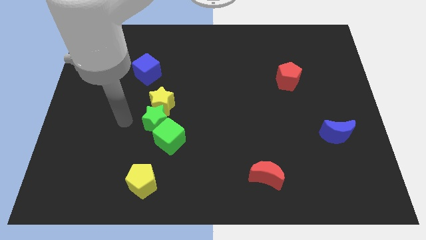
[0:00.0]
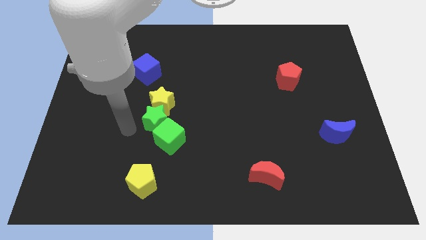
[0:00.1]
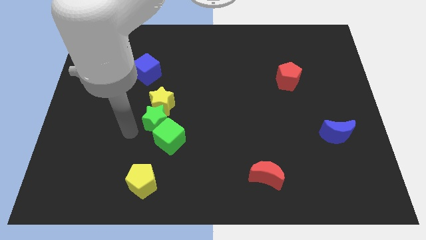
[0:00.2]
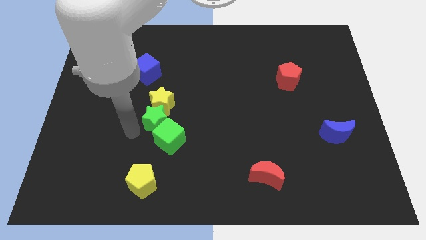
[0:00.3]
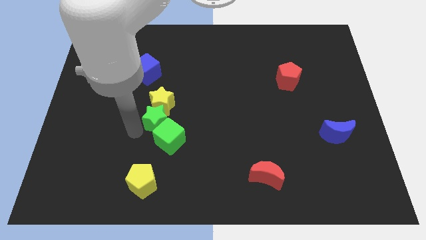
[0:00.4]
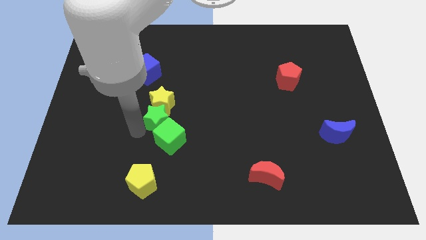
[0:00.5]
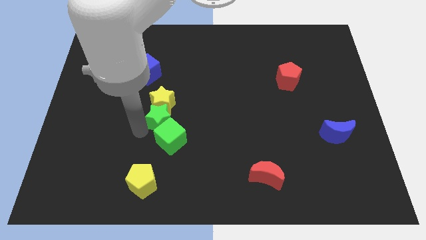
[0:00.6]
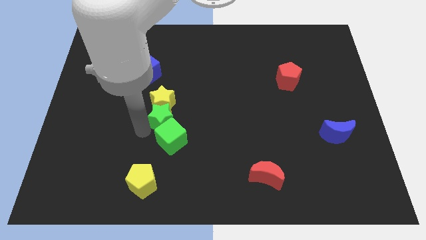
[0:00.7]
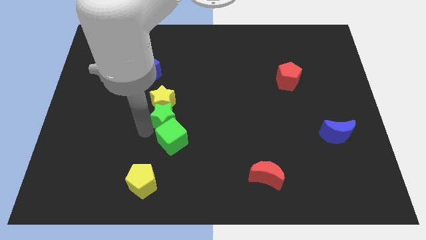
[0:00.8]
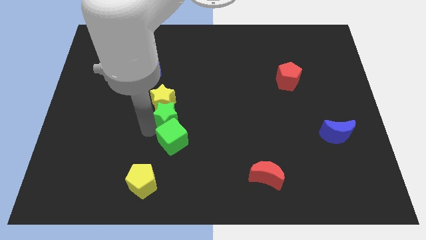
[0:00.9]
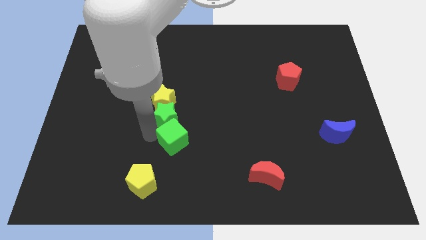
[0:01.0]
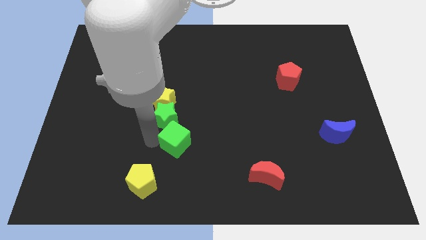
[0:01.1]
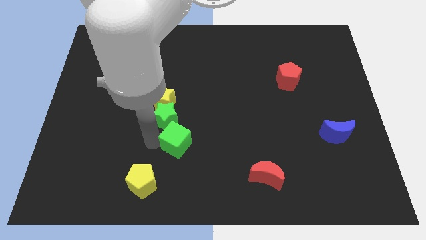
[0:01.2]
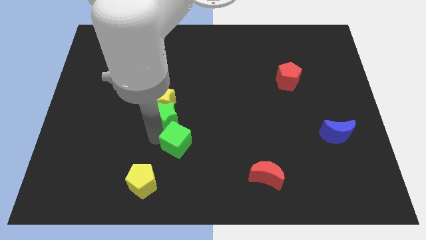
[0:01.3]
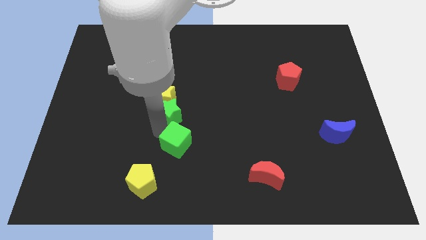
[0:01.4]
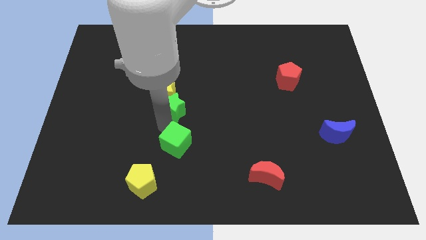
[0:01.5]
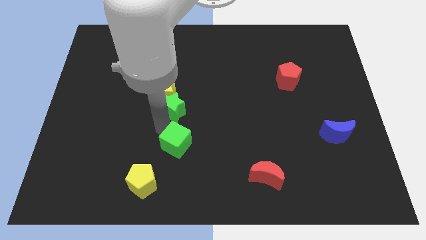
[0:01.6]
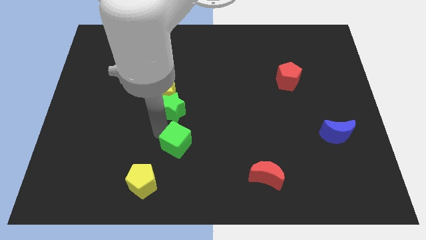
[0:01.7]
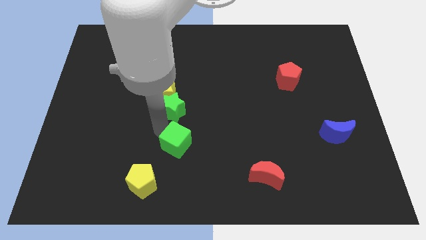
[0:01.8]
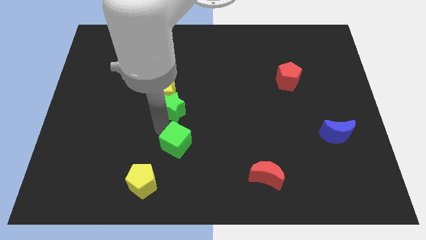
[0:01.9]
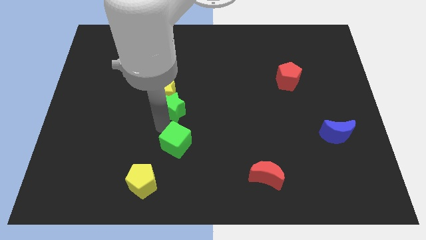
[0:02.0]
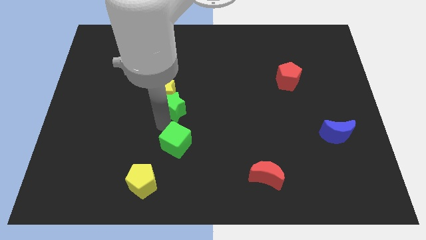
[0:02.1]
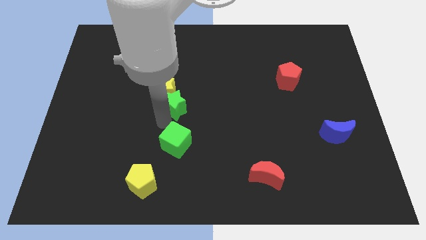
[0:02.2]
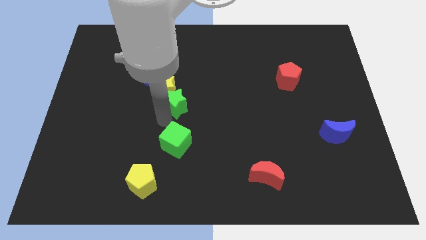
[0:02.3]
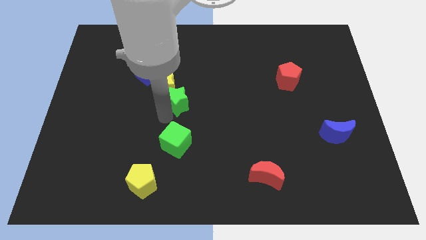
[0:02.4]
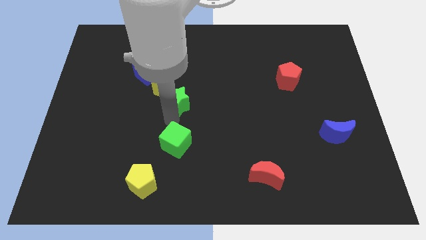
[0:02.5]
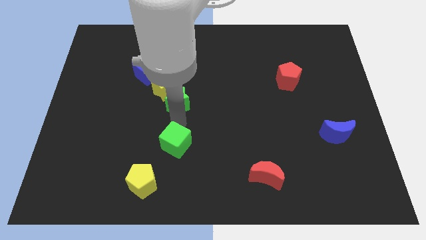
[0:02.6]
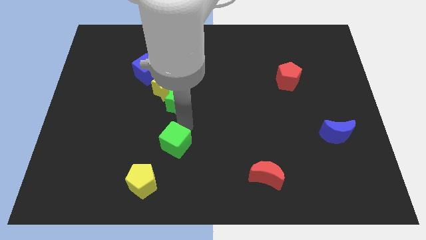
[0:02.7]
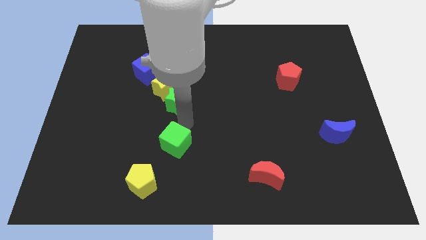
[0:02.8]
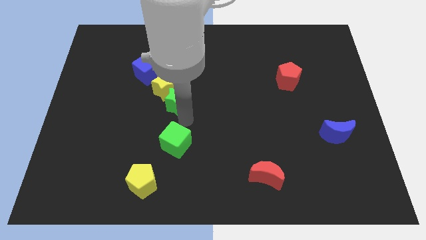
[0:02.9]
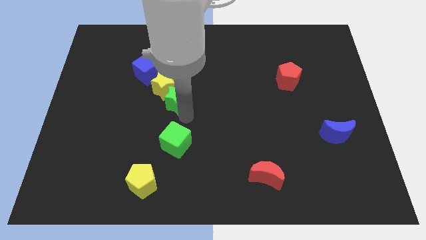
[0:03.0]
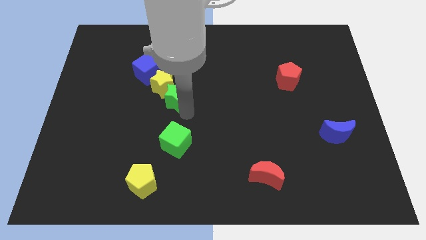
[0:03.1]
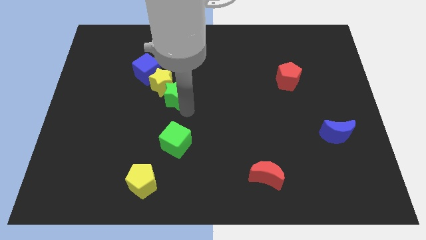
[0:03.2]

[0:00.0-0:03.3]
slide the green star slightly up

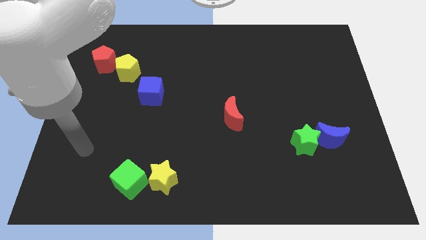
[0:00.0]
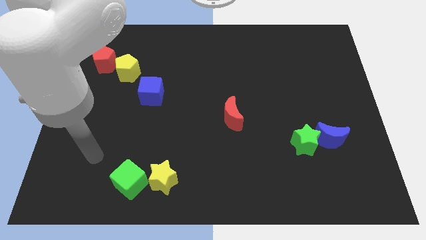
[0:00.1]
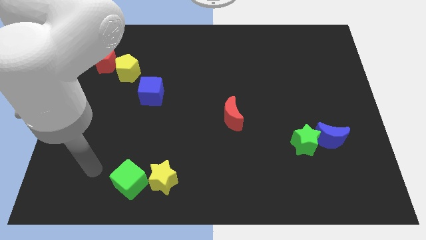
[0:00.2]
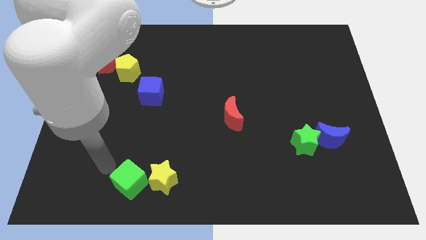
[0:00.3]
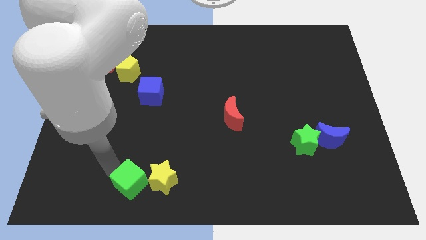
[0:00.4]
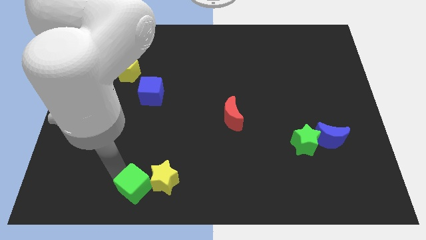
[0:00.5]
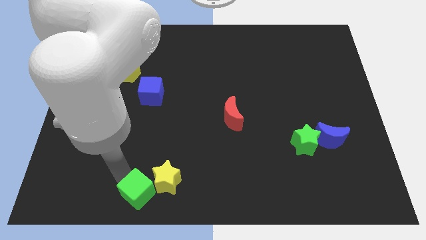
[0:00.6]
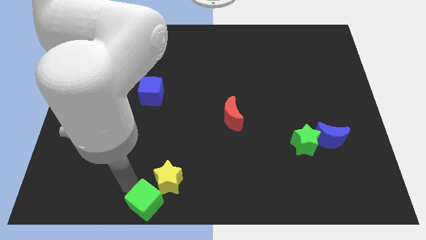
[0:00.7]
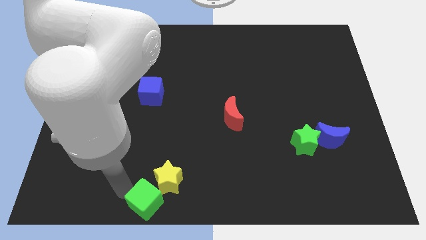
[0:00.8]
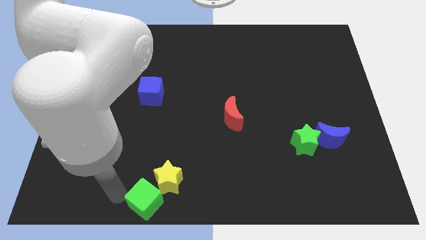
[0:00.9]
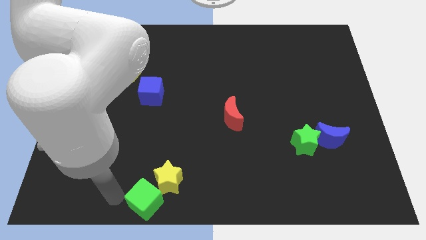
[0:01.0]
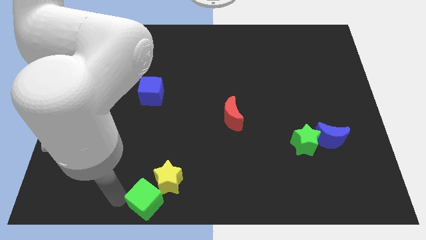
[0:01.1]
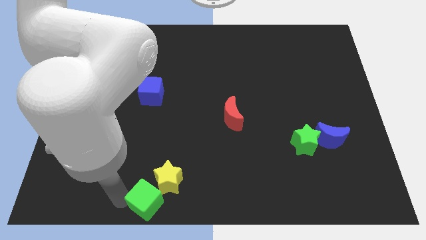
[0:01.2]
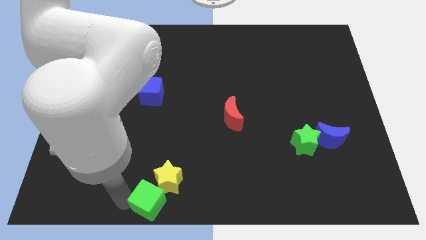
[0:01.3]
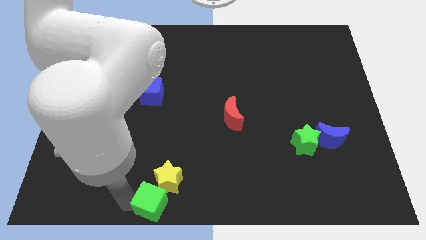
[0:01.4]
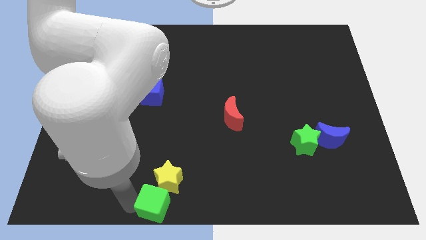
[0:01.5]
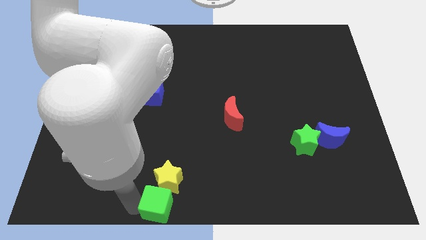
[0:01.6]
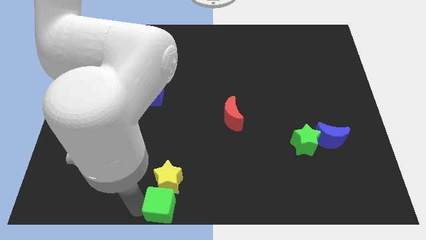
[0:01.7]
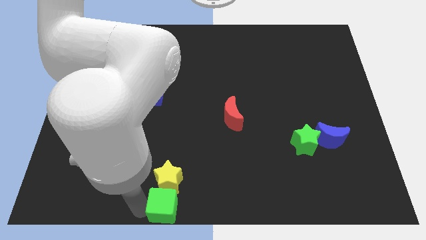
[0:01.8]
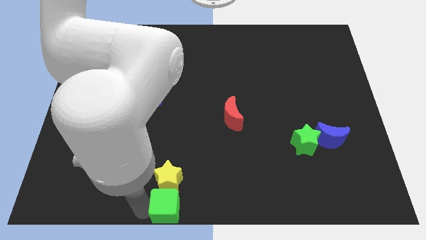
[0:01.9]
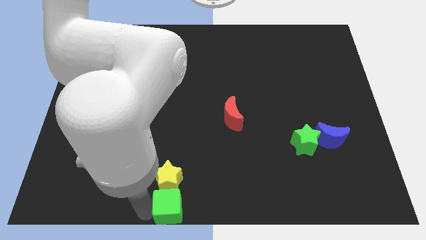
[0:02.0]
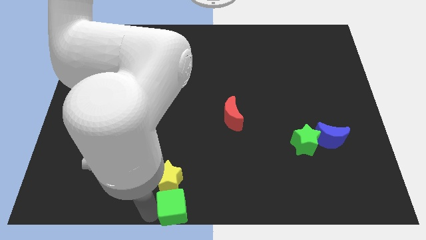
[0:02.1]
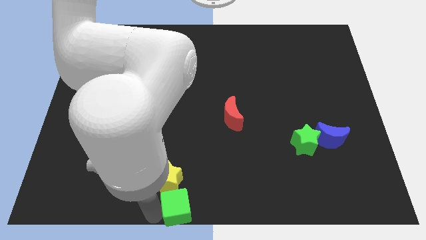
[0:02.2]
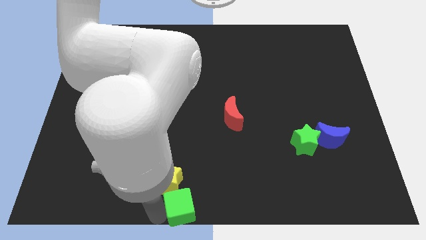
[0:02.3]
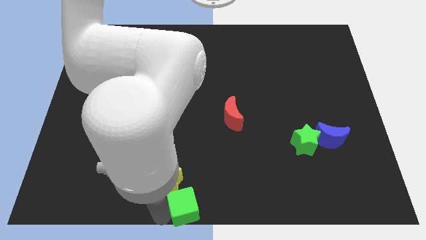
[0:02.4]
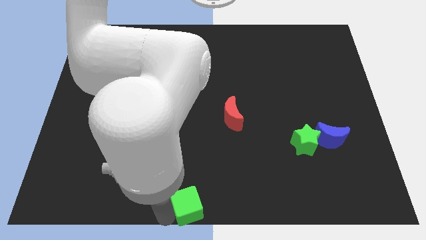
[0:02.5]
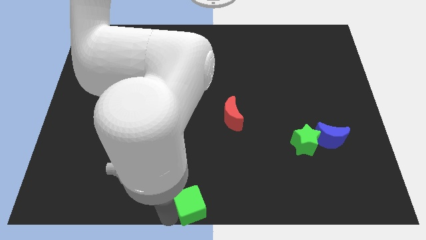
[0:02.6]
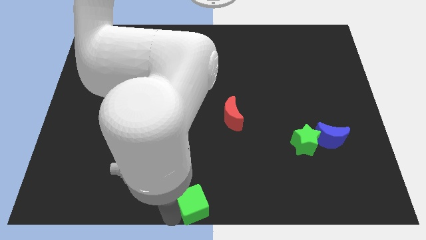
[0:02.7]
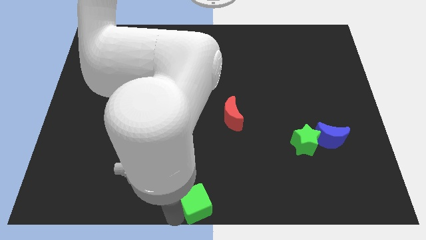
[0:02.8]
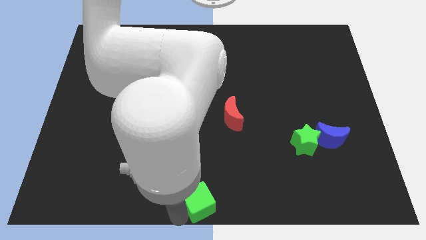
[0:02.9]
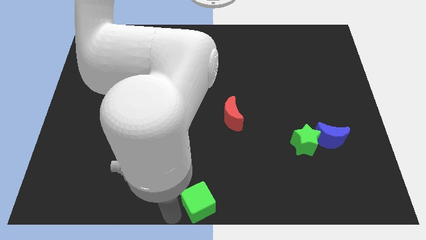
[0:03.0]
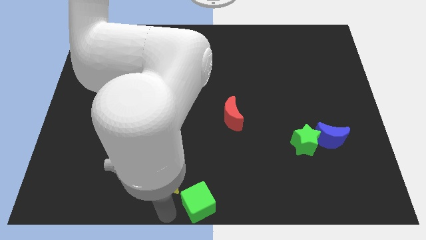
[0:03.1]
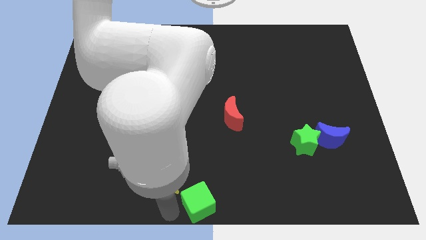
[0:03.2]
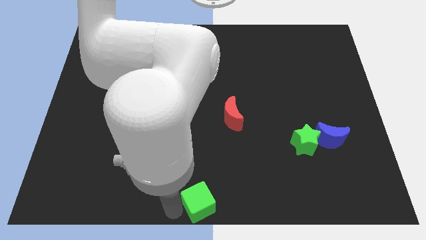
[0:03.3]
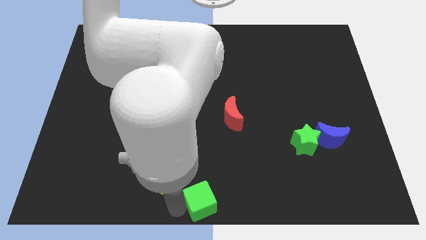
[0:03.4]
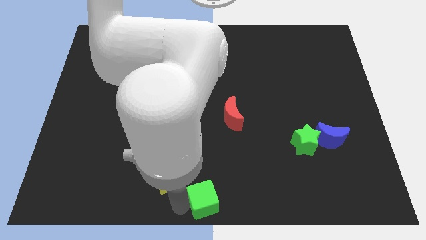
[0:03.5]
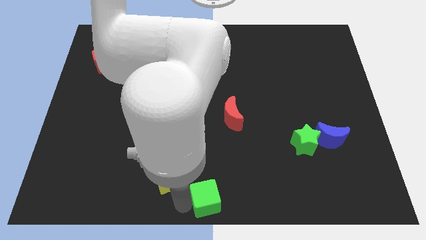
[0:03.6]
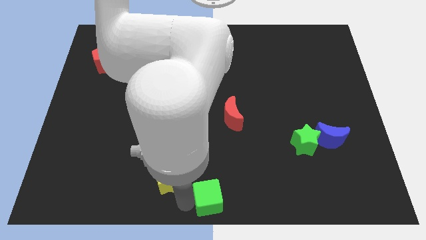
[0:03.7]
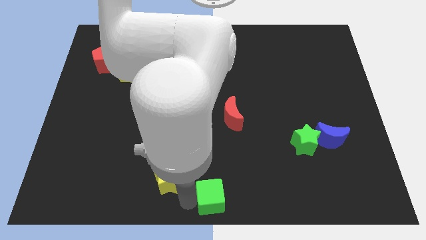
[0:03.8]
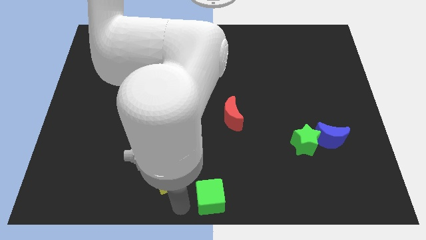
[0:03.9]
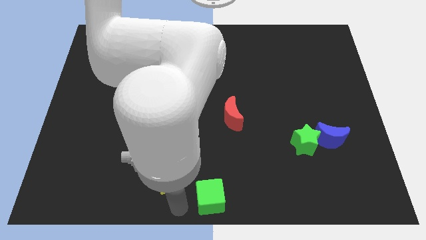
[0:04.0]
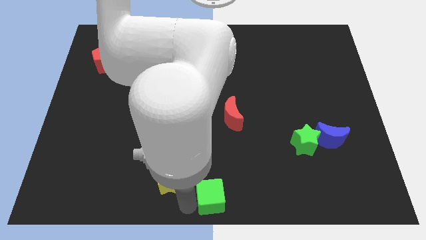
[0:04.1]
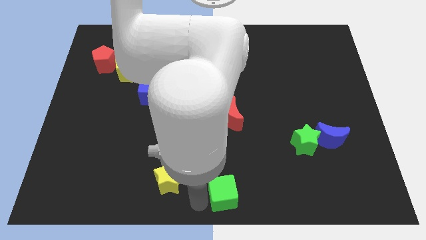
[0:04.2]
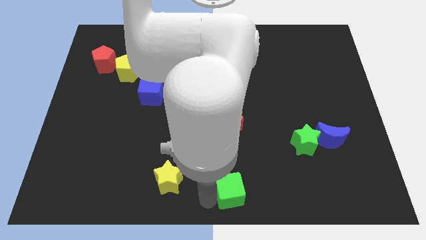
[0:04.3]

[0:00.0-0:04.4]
slide the green cube right

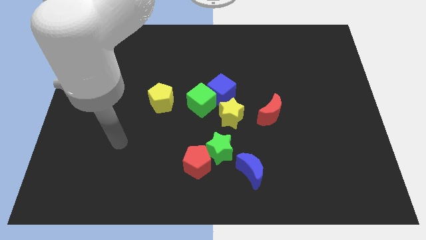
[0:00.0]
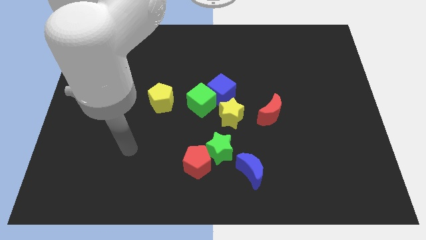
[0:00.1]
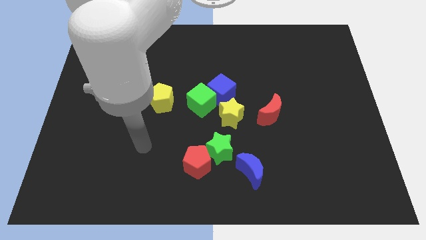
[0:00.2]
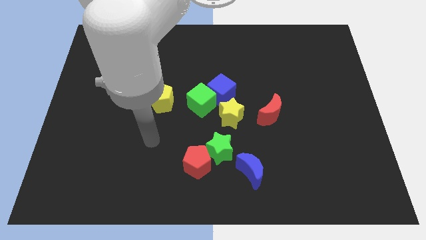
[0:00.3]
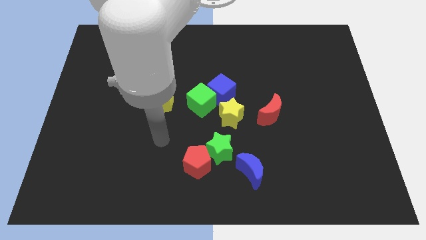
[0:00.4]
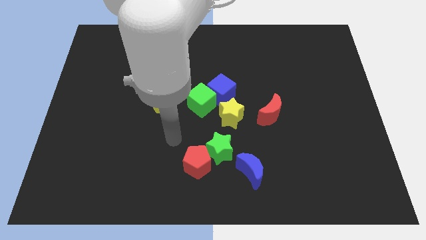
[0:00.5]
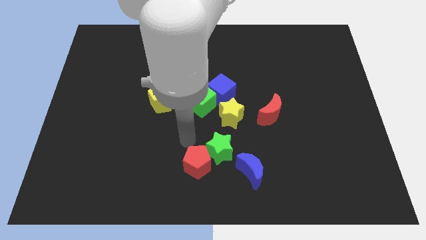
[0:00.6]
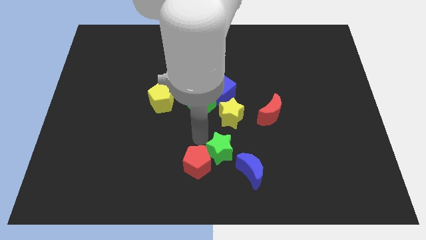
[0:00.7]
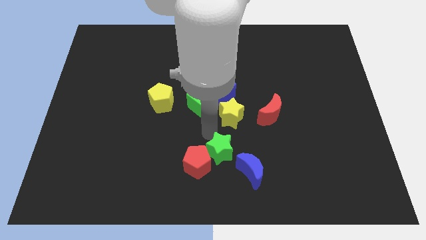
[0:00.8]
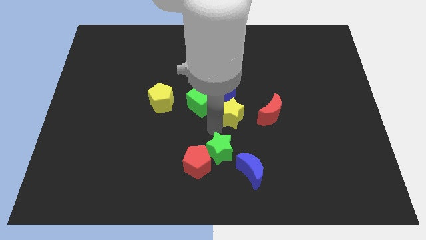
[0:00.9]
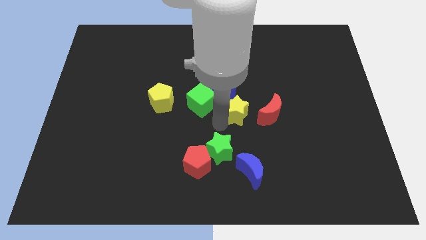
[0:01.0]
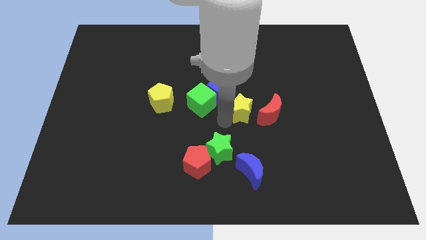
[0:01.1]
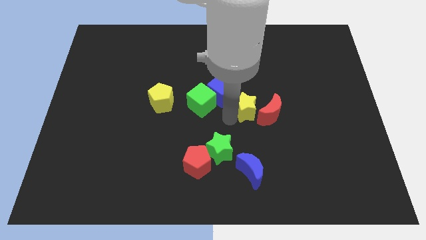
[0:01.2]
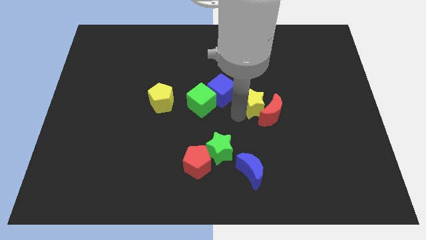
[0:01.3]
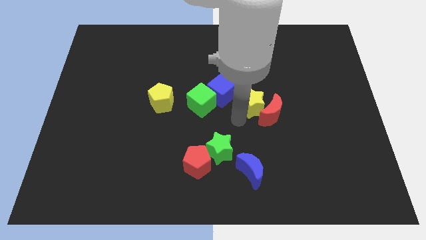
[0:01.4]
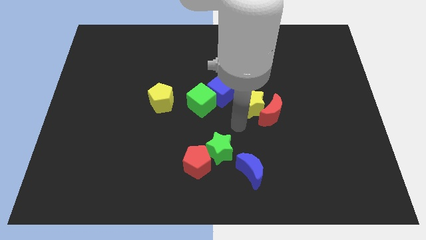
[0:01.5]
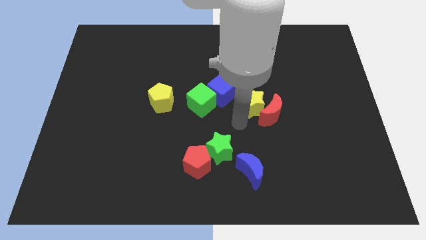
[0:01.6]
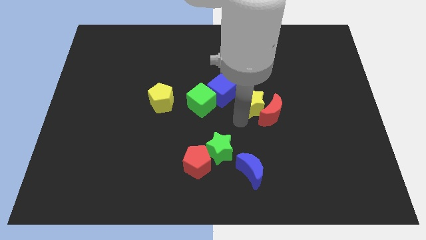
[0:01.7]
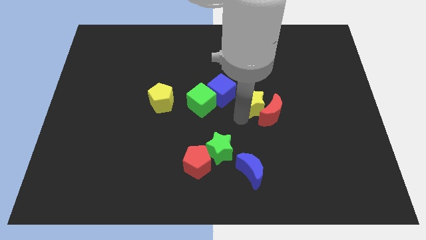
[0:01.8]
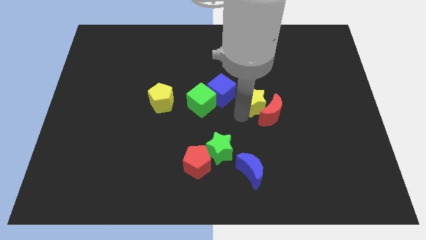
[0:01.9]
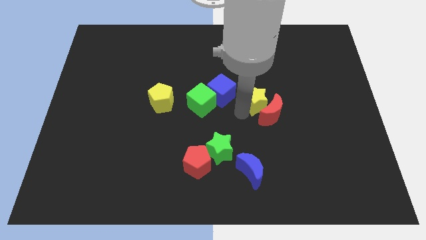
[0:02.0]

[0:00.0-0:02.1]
move the yellow star a bit up and to the right diagonally
